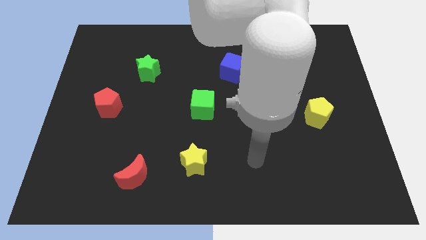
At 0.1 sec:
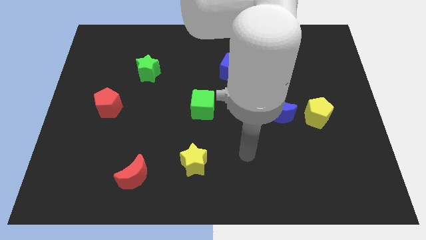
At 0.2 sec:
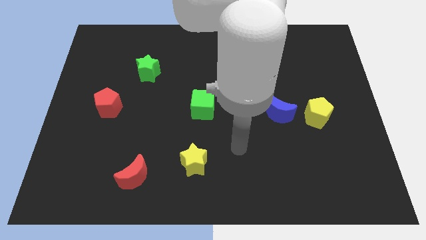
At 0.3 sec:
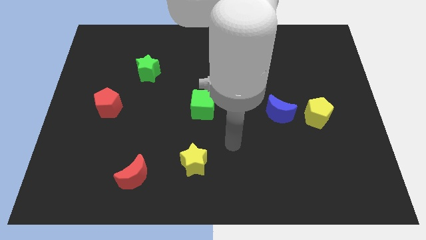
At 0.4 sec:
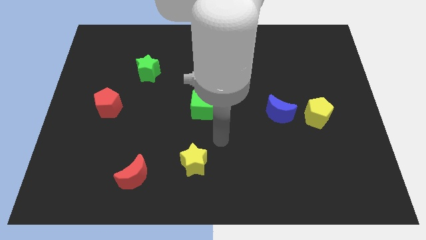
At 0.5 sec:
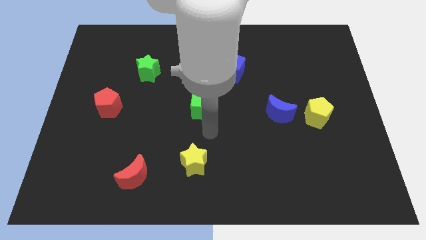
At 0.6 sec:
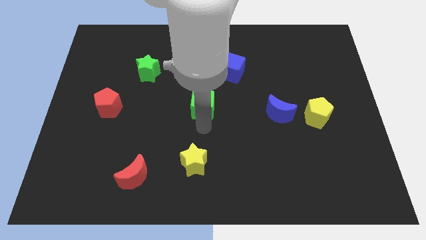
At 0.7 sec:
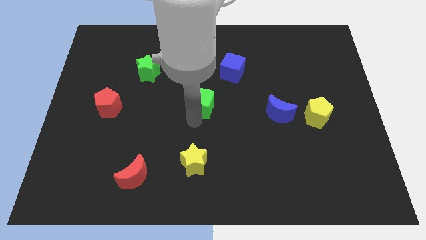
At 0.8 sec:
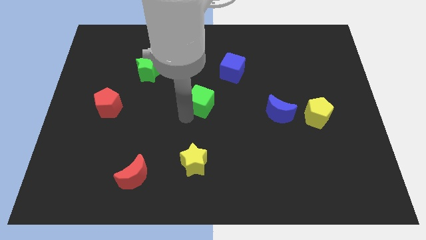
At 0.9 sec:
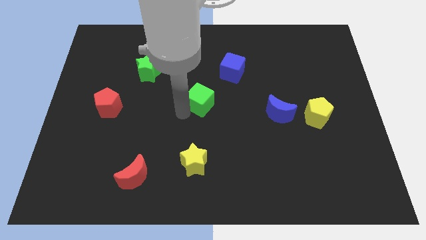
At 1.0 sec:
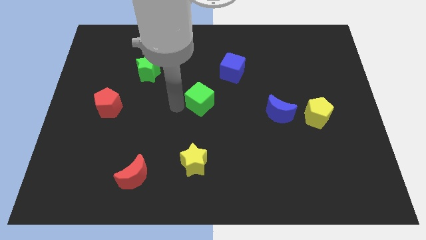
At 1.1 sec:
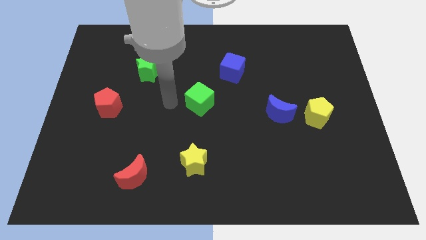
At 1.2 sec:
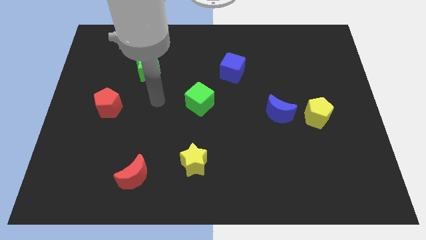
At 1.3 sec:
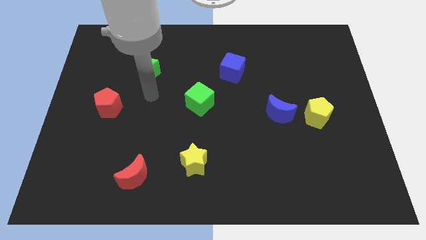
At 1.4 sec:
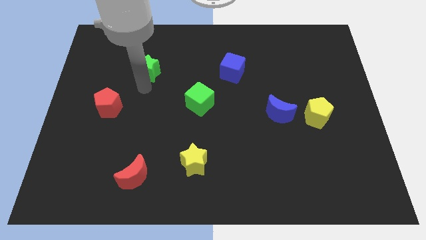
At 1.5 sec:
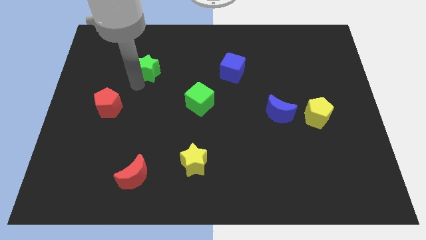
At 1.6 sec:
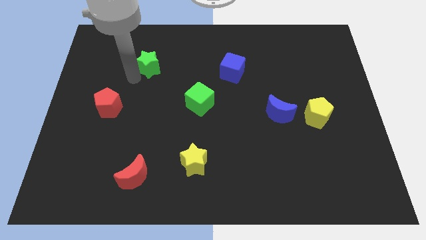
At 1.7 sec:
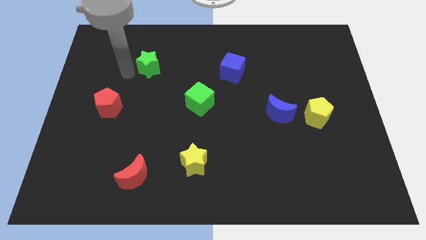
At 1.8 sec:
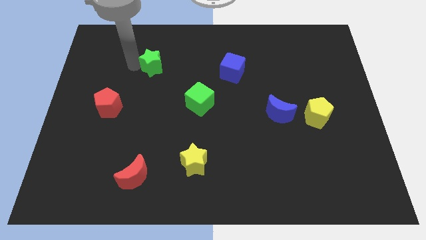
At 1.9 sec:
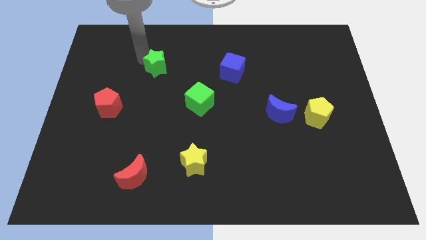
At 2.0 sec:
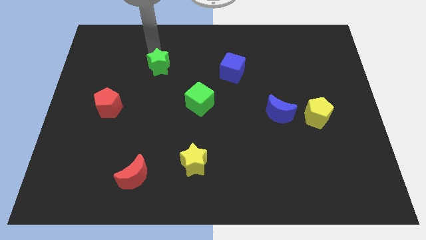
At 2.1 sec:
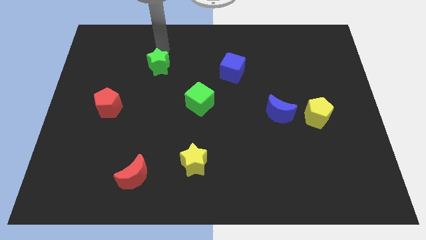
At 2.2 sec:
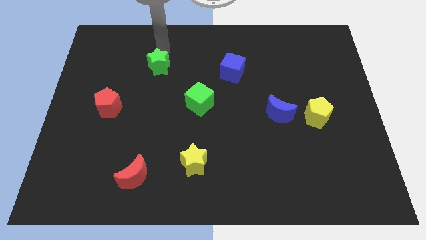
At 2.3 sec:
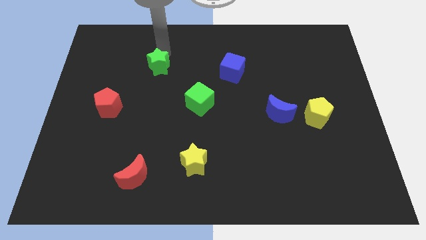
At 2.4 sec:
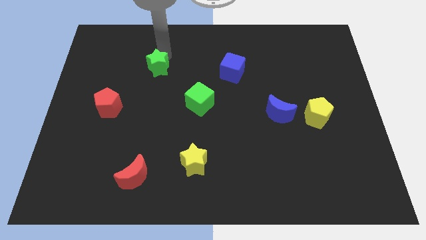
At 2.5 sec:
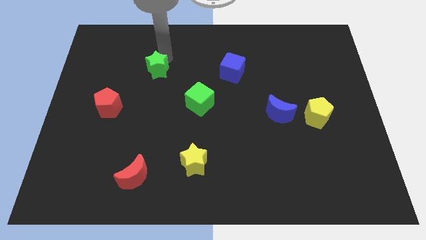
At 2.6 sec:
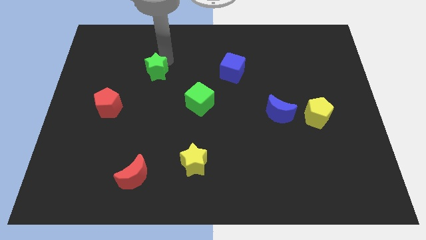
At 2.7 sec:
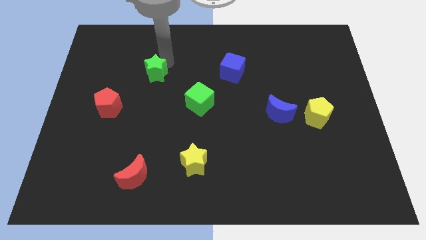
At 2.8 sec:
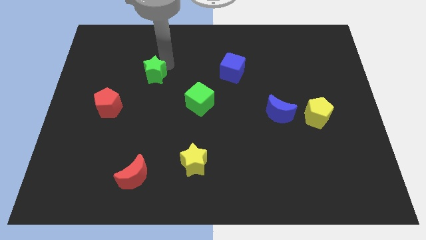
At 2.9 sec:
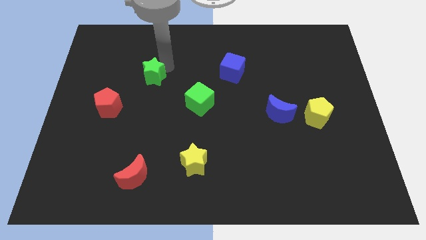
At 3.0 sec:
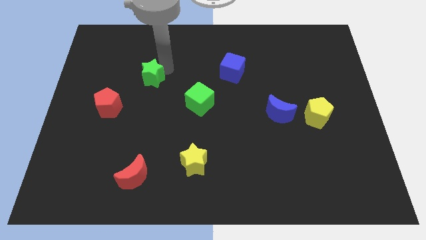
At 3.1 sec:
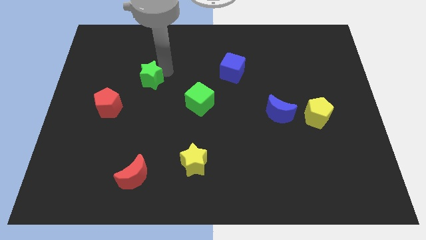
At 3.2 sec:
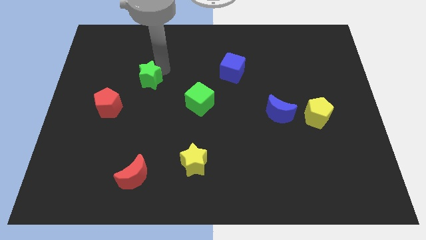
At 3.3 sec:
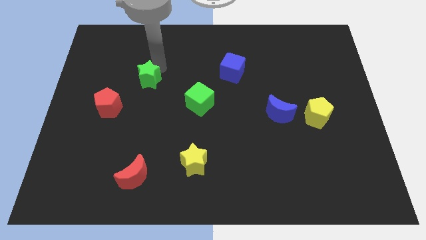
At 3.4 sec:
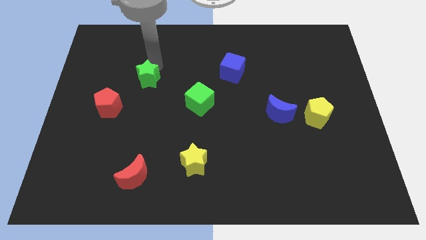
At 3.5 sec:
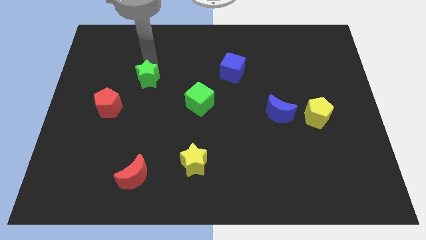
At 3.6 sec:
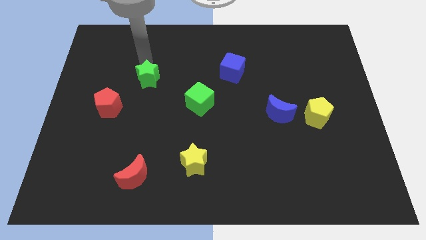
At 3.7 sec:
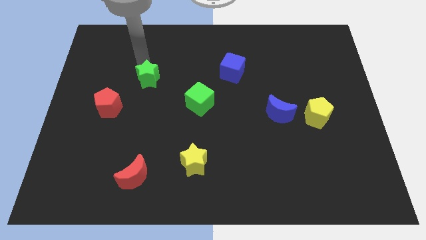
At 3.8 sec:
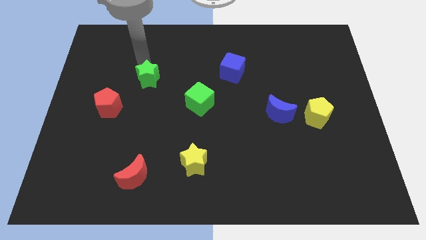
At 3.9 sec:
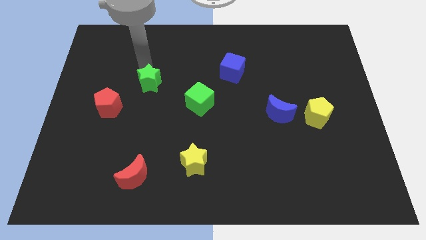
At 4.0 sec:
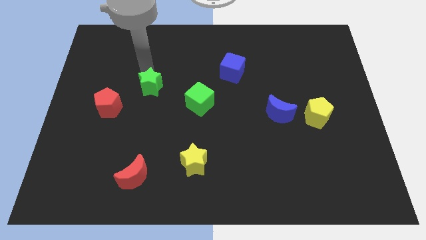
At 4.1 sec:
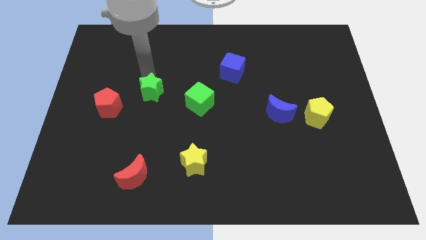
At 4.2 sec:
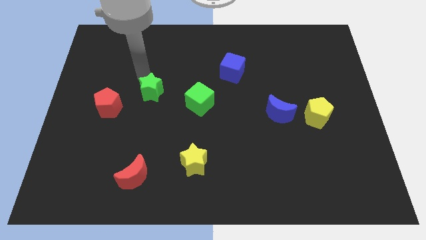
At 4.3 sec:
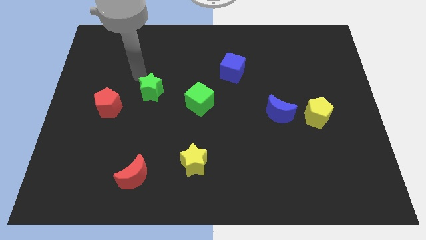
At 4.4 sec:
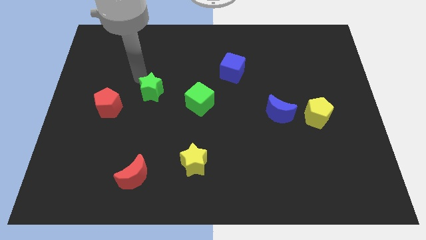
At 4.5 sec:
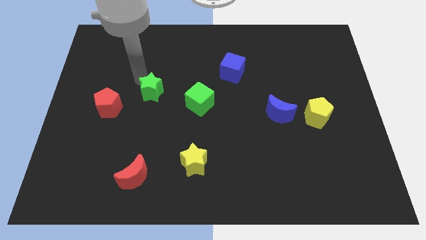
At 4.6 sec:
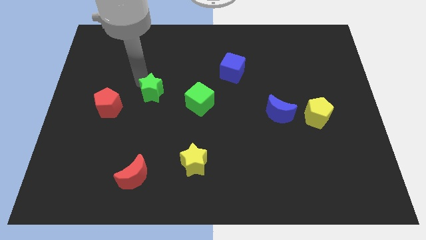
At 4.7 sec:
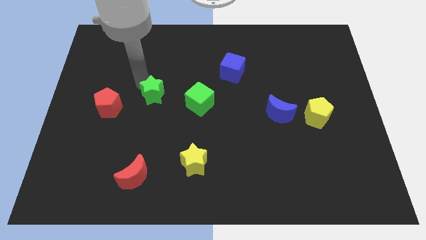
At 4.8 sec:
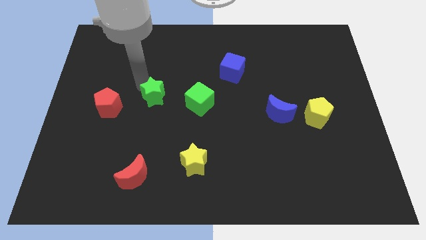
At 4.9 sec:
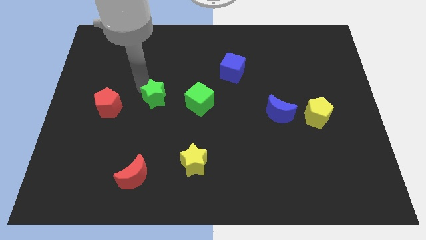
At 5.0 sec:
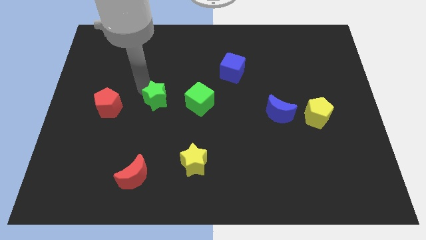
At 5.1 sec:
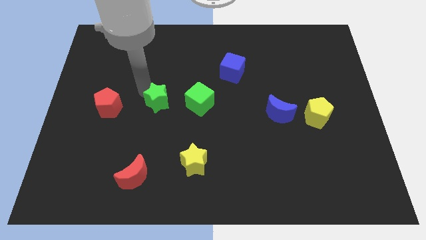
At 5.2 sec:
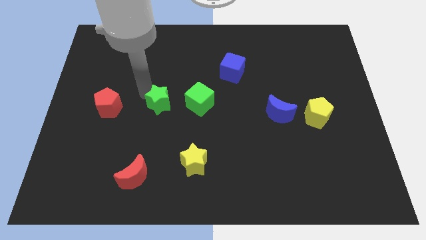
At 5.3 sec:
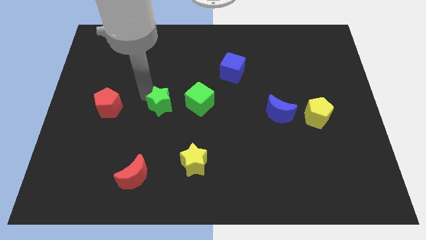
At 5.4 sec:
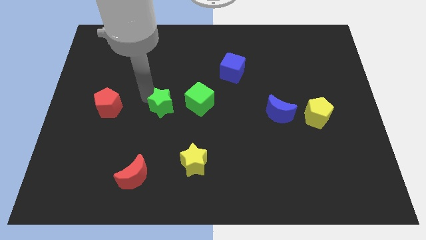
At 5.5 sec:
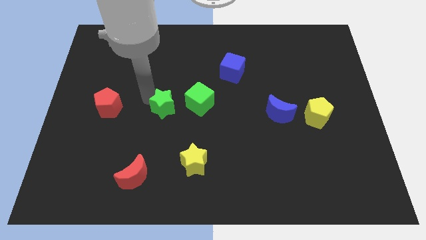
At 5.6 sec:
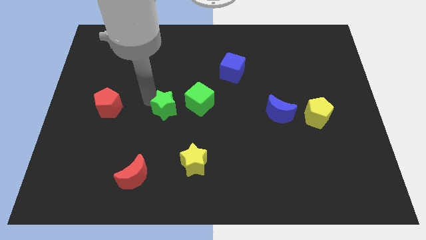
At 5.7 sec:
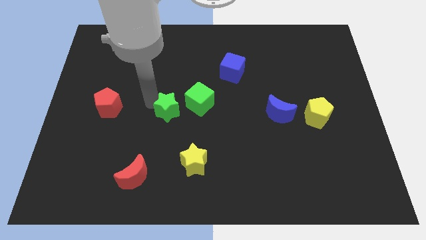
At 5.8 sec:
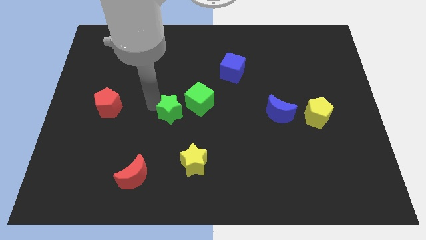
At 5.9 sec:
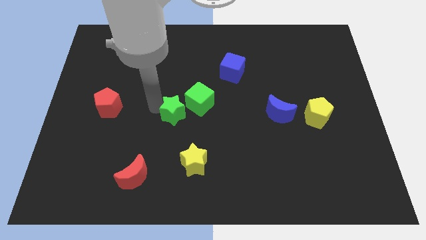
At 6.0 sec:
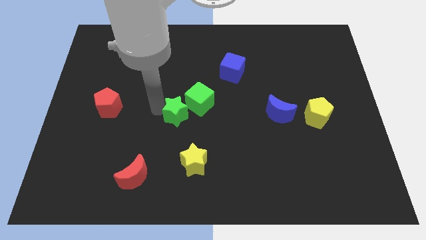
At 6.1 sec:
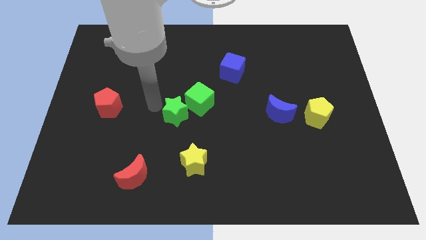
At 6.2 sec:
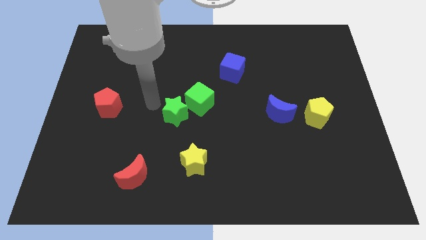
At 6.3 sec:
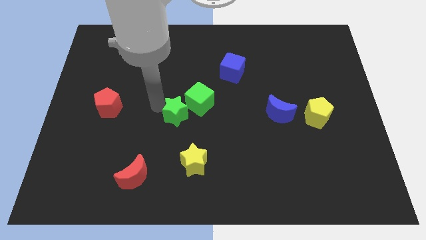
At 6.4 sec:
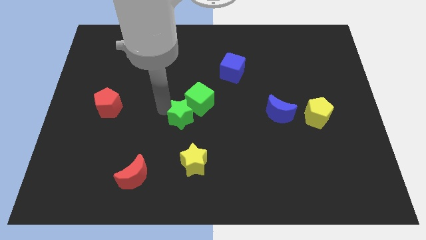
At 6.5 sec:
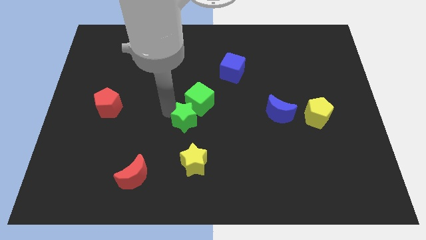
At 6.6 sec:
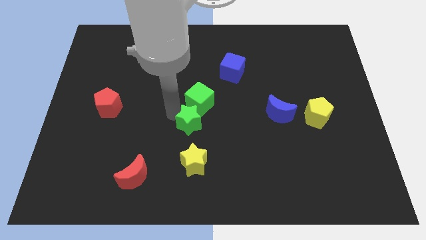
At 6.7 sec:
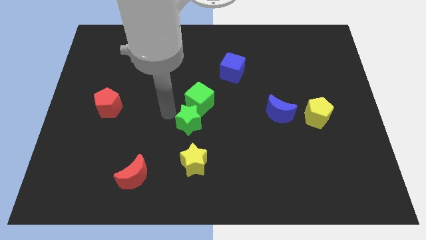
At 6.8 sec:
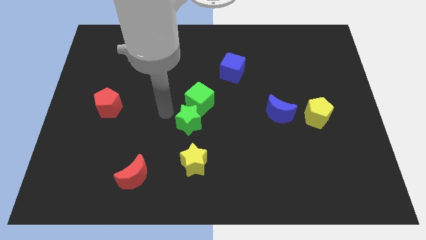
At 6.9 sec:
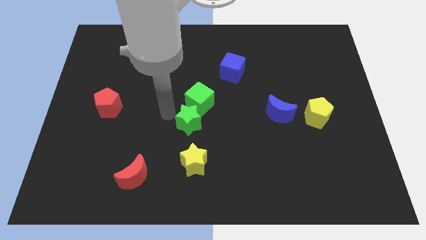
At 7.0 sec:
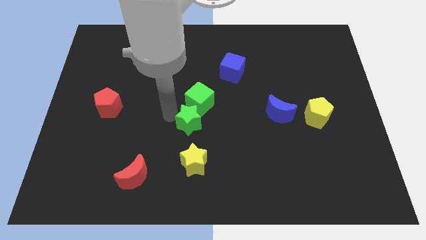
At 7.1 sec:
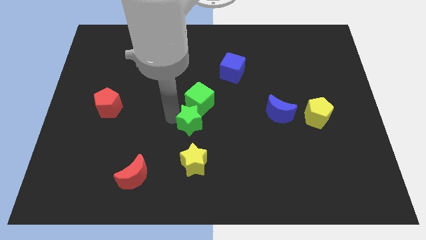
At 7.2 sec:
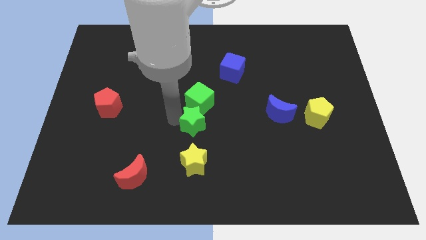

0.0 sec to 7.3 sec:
move the green star downwards and then to the right
